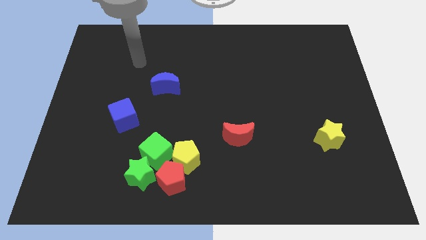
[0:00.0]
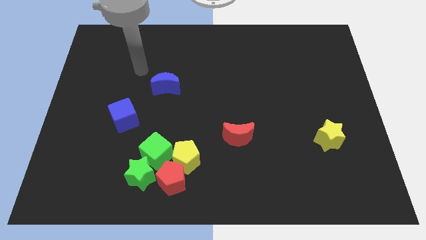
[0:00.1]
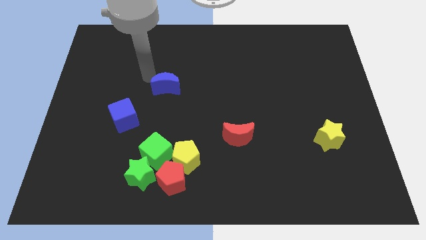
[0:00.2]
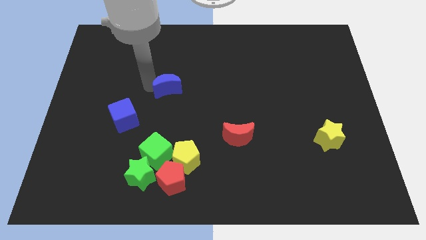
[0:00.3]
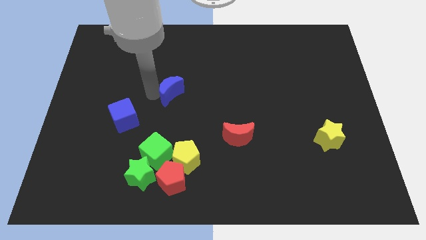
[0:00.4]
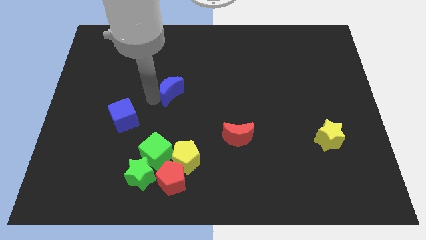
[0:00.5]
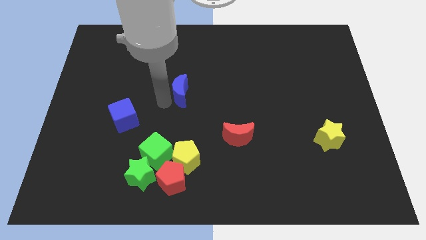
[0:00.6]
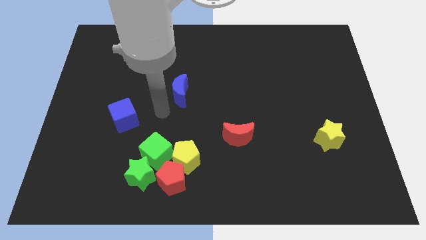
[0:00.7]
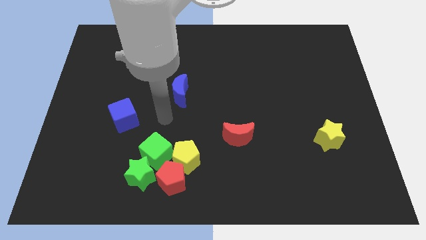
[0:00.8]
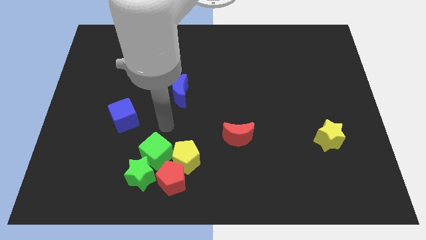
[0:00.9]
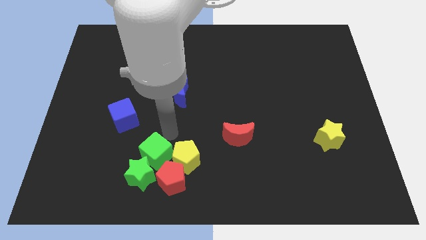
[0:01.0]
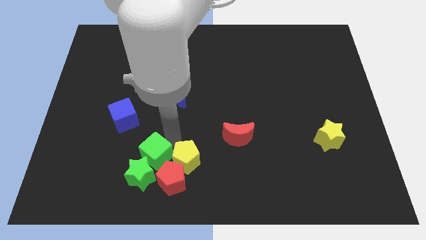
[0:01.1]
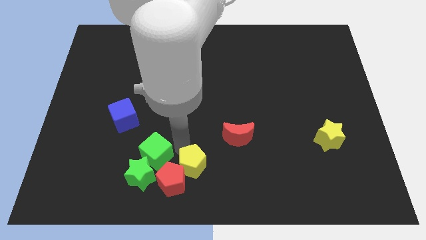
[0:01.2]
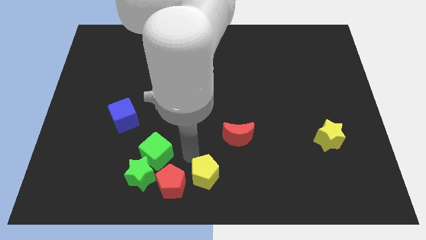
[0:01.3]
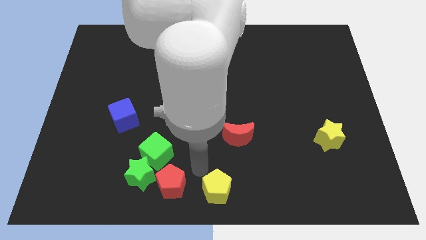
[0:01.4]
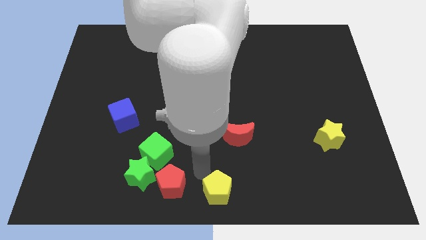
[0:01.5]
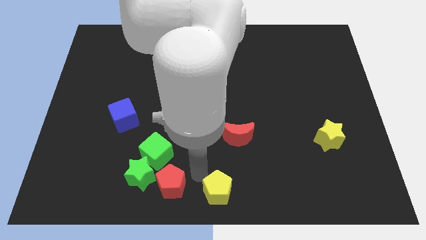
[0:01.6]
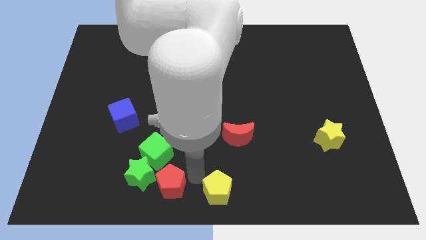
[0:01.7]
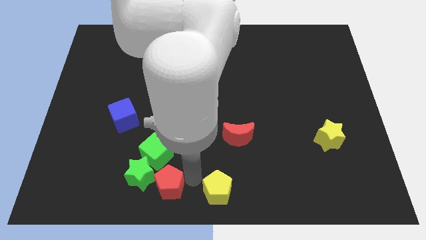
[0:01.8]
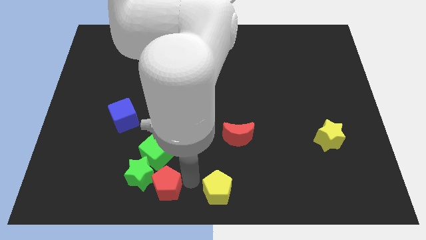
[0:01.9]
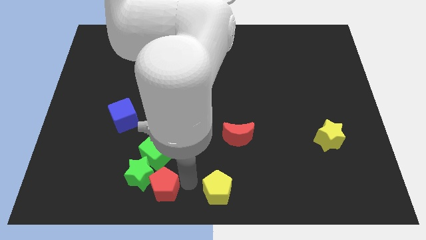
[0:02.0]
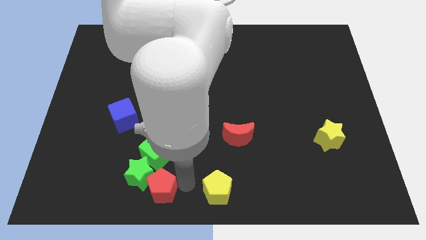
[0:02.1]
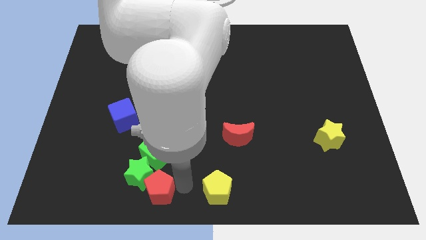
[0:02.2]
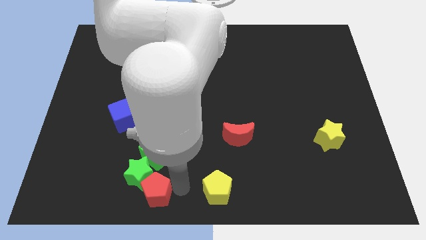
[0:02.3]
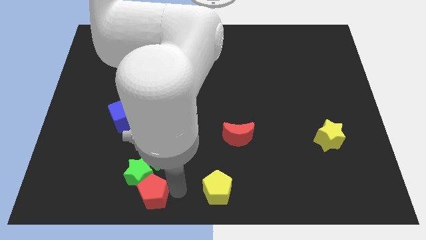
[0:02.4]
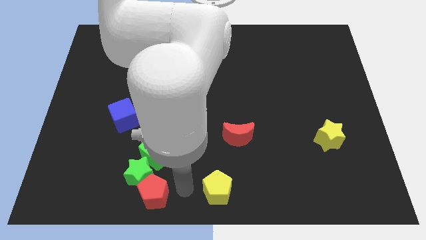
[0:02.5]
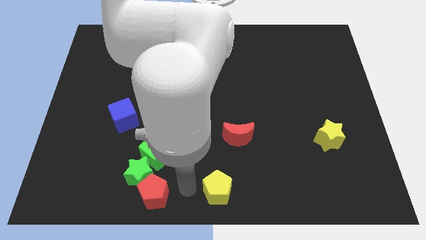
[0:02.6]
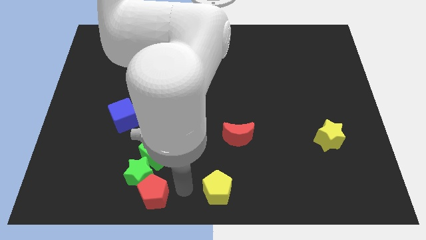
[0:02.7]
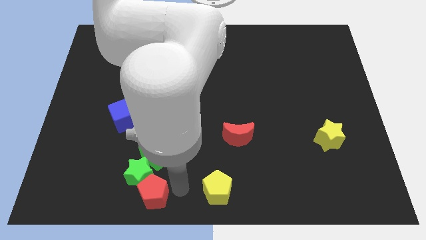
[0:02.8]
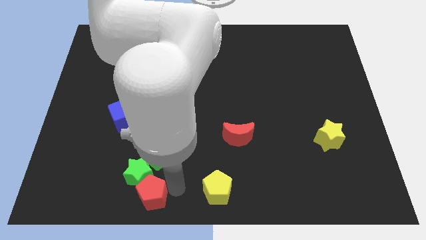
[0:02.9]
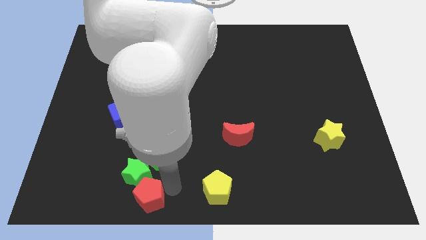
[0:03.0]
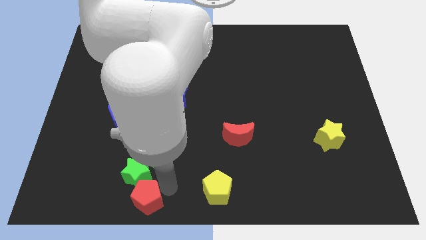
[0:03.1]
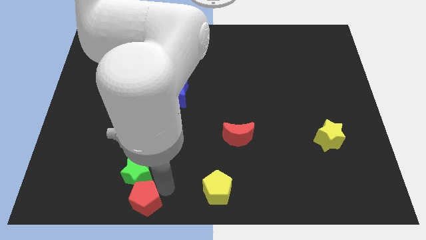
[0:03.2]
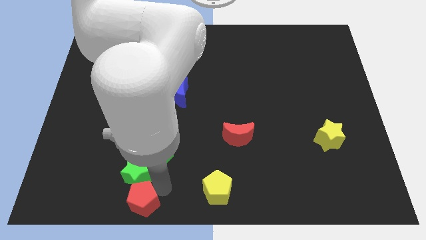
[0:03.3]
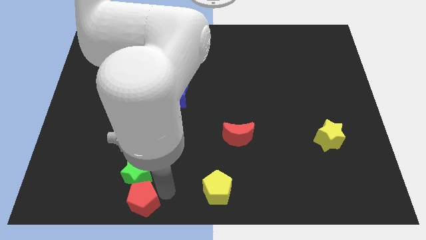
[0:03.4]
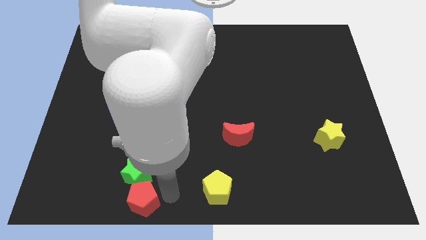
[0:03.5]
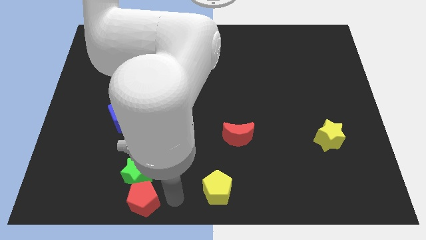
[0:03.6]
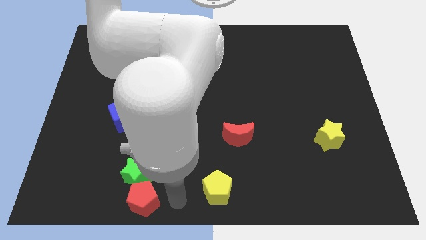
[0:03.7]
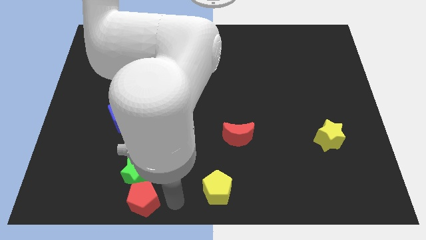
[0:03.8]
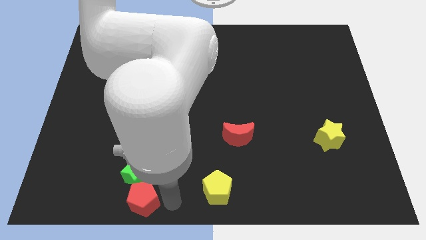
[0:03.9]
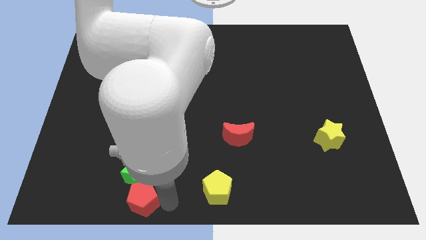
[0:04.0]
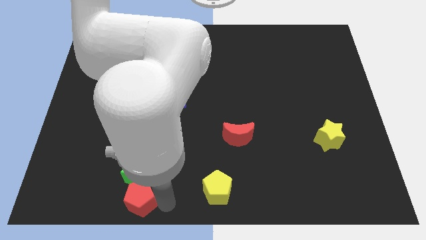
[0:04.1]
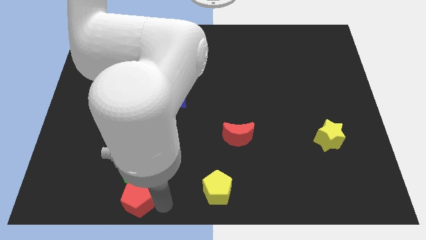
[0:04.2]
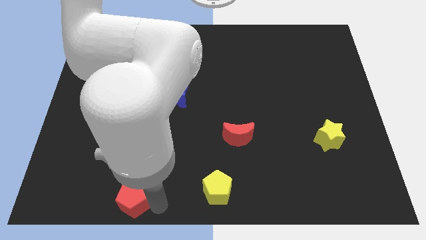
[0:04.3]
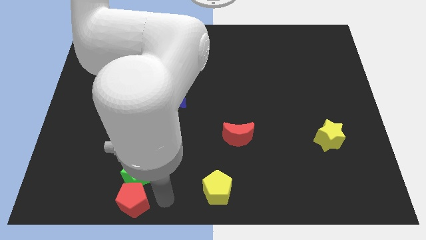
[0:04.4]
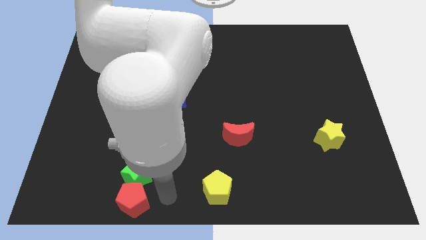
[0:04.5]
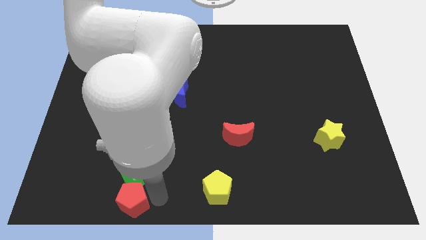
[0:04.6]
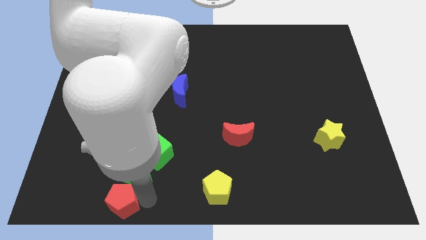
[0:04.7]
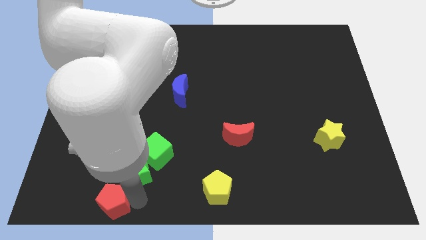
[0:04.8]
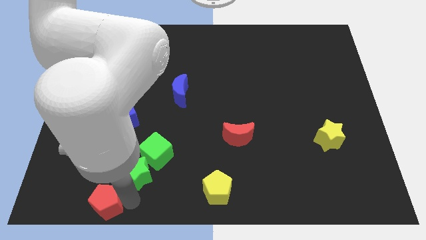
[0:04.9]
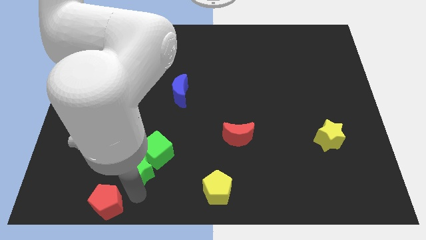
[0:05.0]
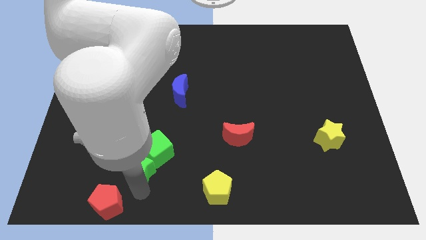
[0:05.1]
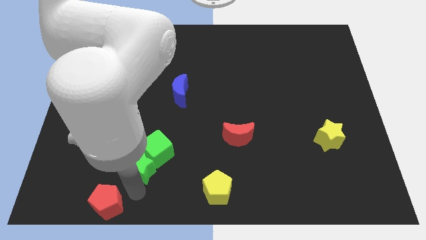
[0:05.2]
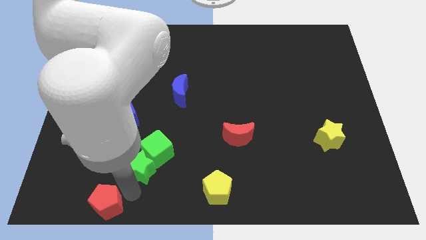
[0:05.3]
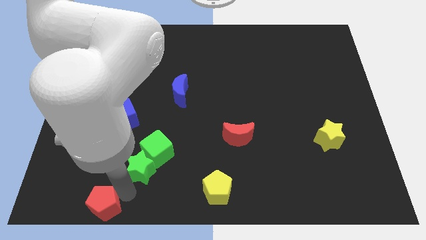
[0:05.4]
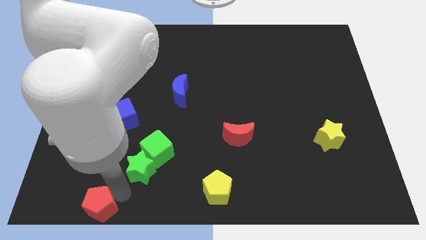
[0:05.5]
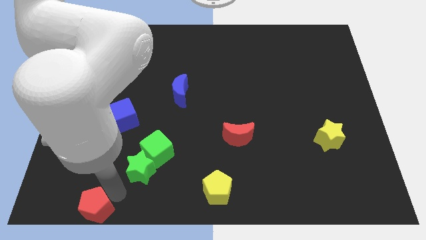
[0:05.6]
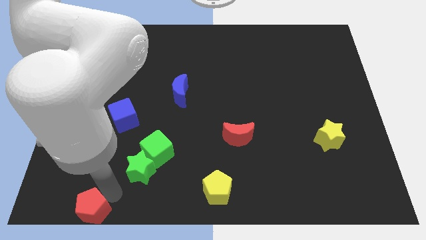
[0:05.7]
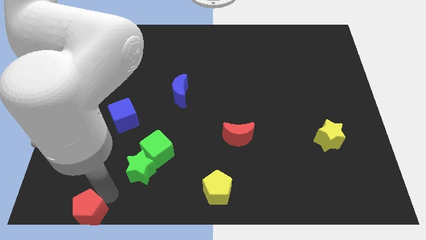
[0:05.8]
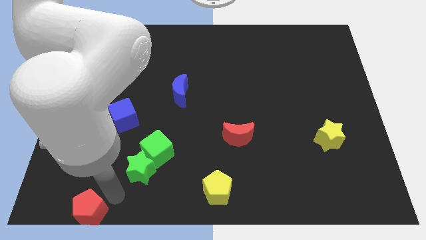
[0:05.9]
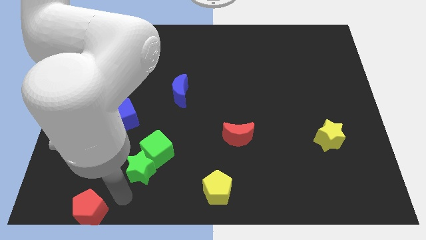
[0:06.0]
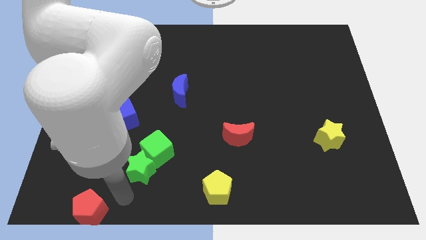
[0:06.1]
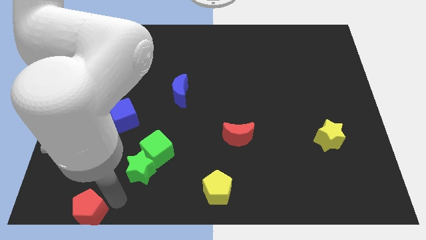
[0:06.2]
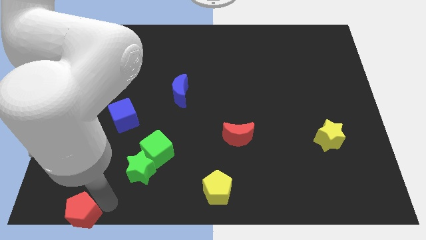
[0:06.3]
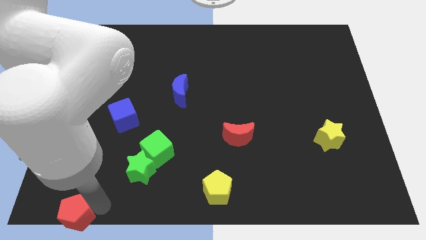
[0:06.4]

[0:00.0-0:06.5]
put the red pentagon to the bottom left

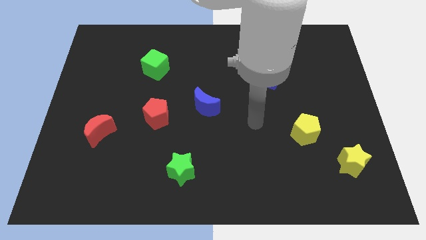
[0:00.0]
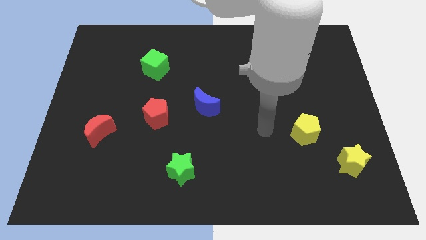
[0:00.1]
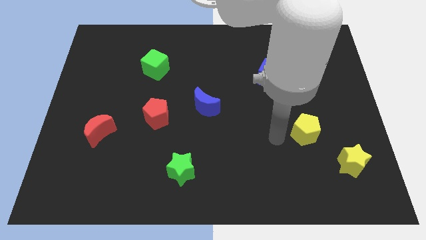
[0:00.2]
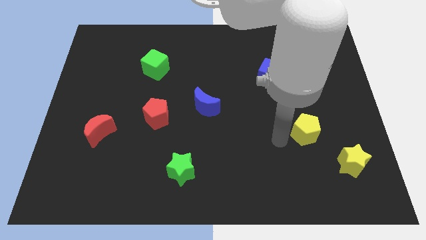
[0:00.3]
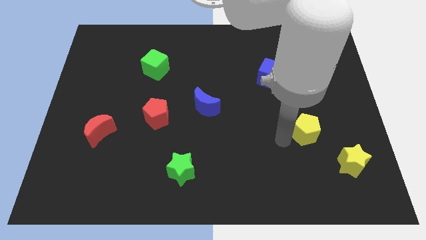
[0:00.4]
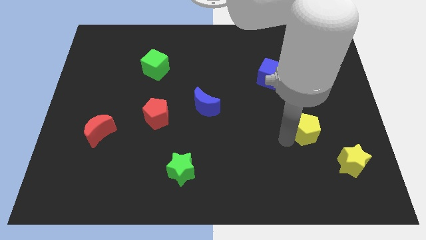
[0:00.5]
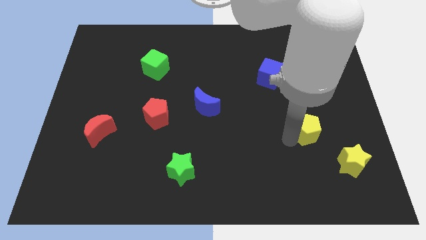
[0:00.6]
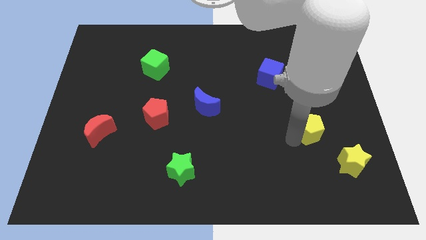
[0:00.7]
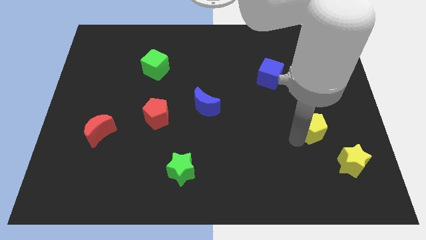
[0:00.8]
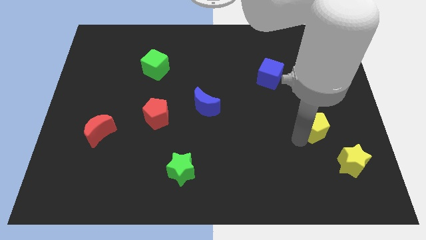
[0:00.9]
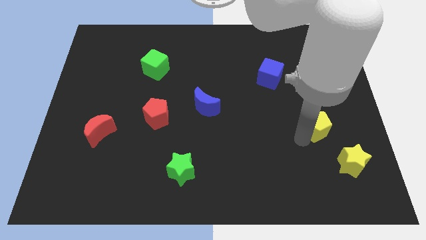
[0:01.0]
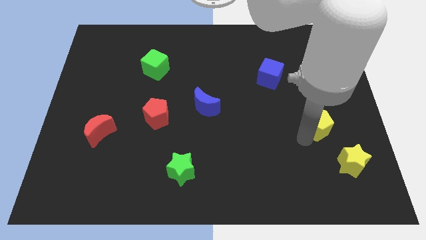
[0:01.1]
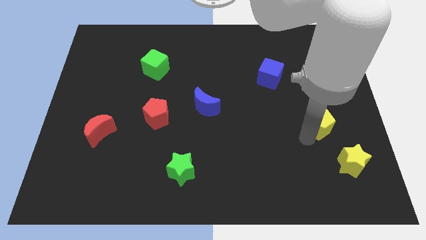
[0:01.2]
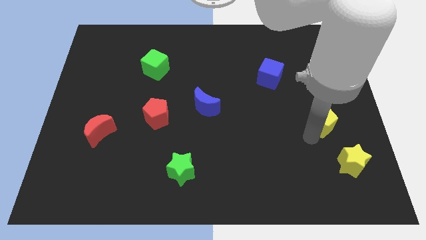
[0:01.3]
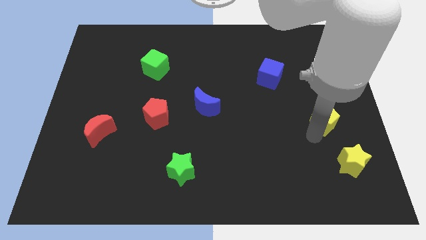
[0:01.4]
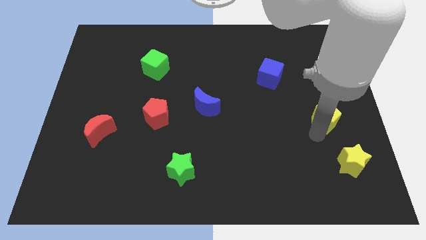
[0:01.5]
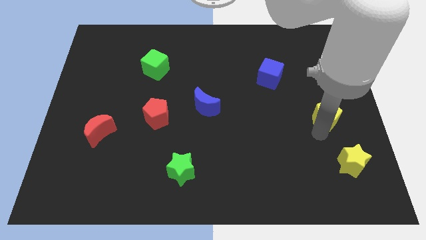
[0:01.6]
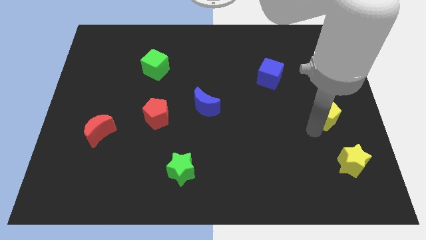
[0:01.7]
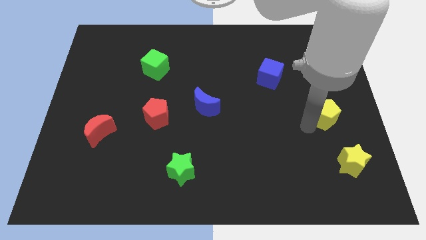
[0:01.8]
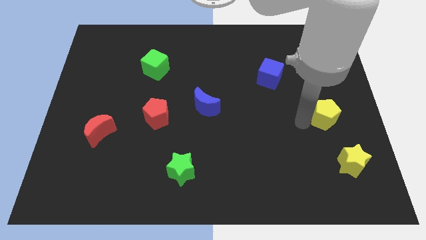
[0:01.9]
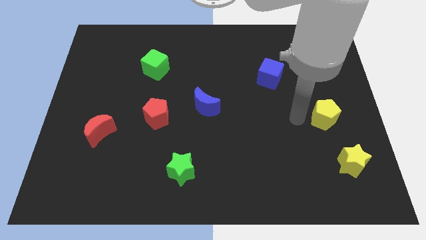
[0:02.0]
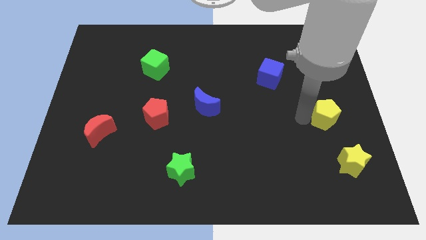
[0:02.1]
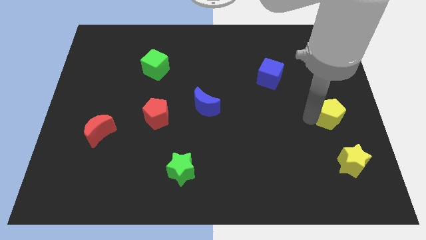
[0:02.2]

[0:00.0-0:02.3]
push the yellow pentagon to the right side
